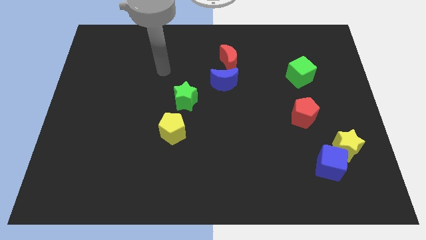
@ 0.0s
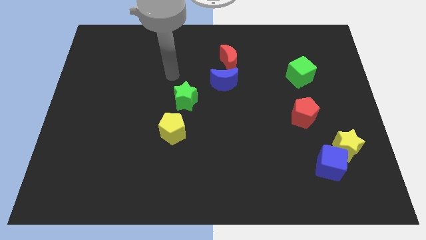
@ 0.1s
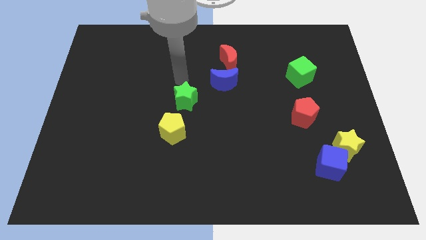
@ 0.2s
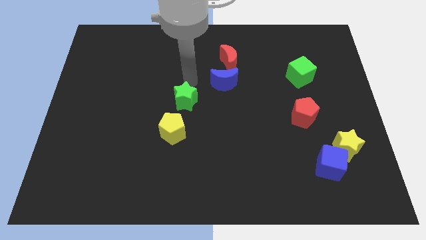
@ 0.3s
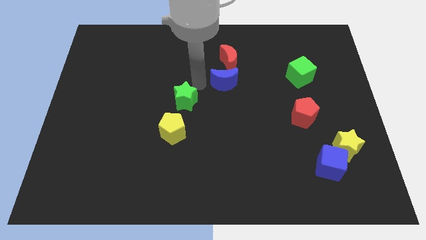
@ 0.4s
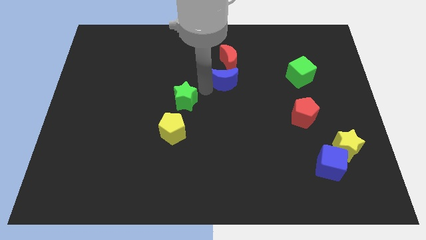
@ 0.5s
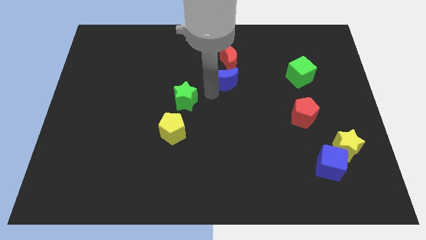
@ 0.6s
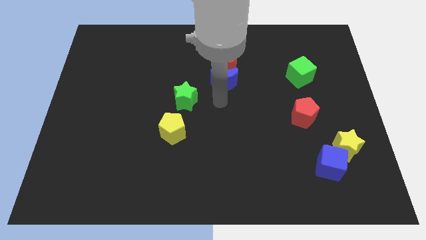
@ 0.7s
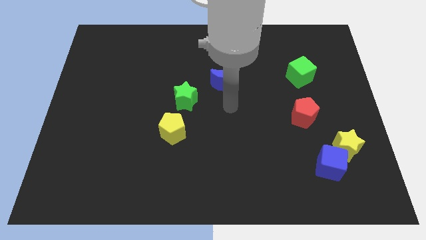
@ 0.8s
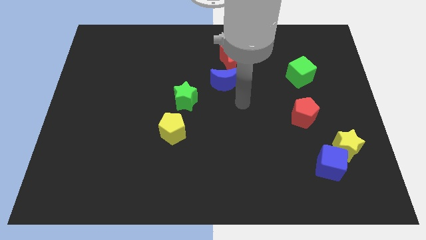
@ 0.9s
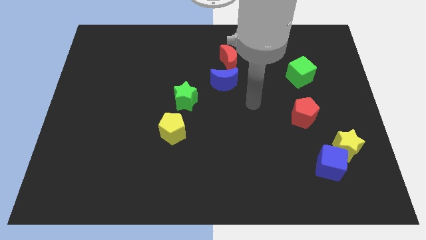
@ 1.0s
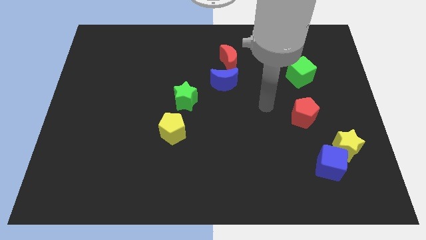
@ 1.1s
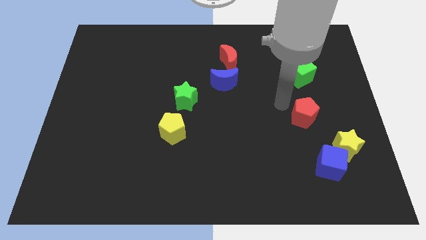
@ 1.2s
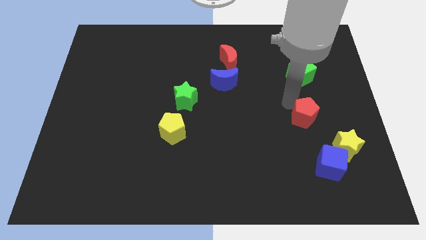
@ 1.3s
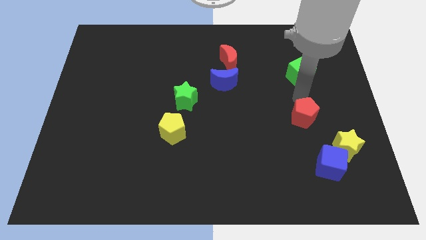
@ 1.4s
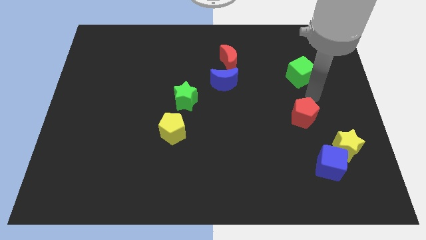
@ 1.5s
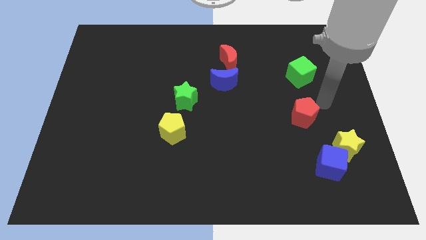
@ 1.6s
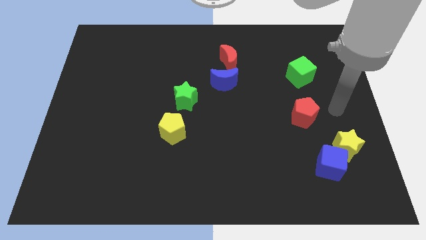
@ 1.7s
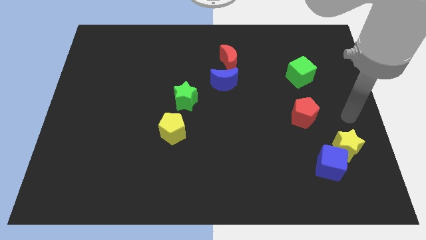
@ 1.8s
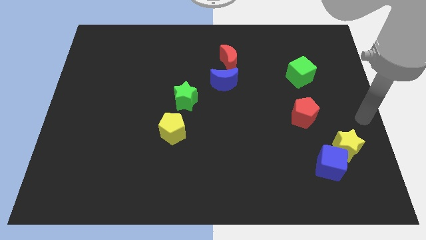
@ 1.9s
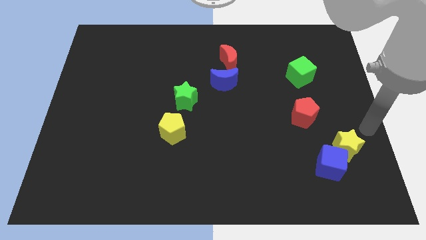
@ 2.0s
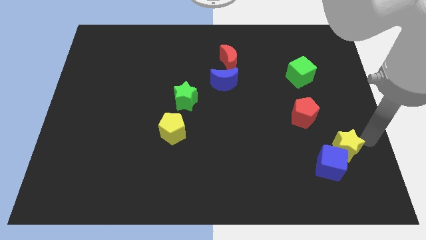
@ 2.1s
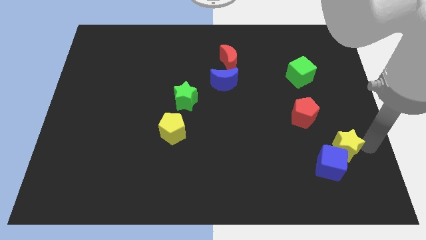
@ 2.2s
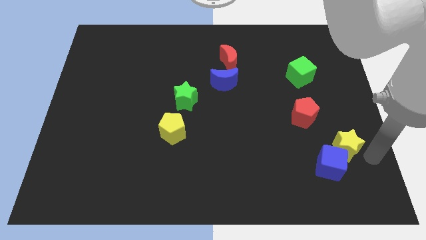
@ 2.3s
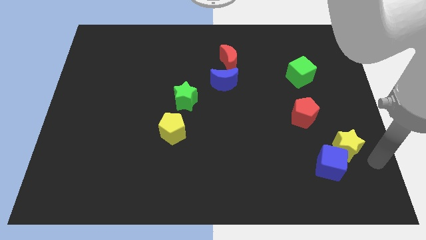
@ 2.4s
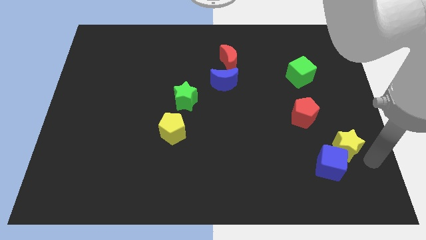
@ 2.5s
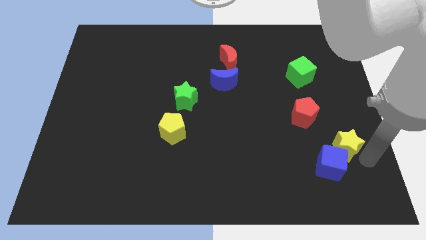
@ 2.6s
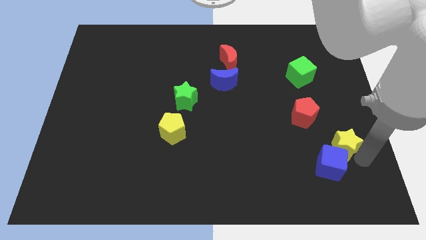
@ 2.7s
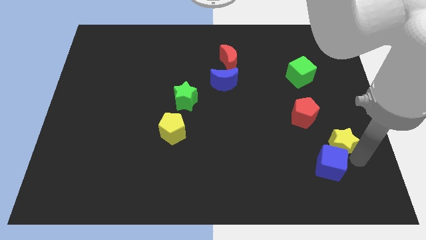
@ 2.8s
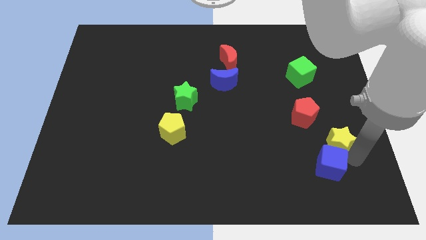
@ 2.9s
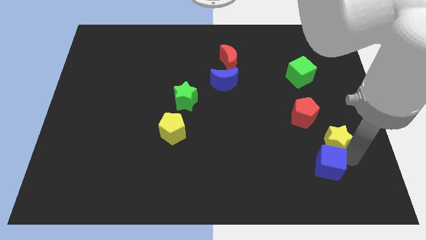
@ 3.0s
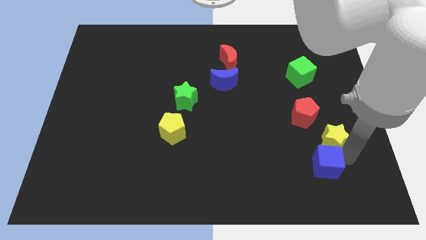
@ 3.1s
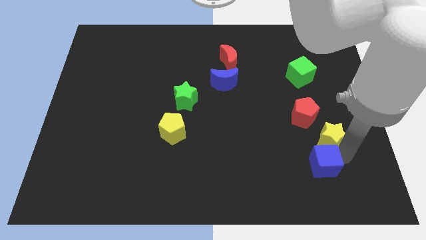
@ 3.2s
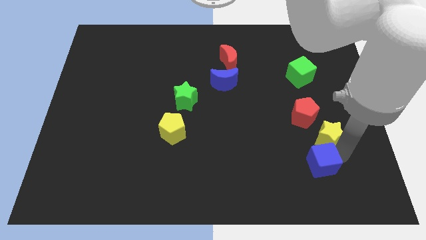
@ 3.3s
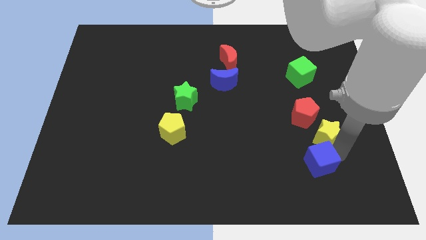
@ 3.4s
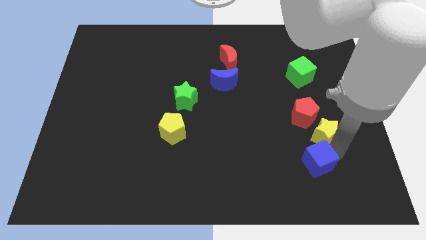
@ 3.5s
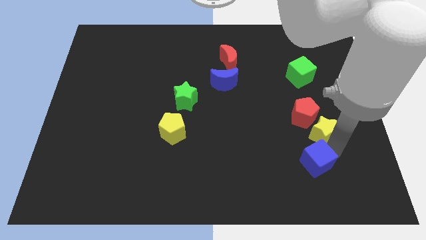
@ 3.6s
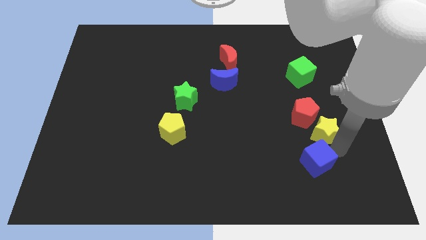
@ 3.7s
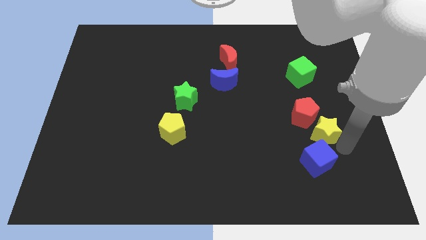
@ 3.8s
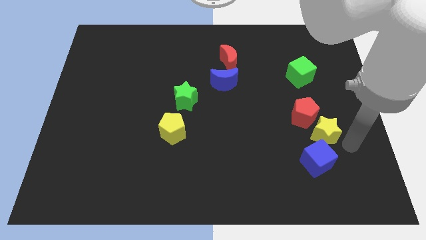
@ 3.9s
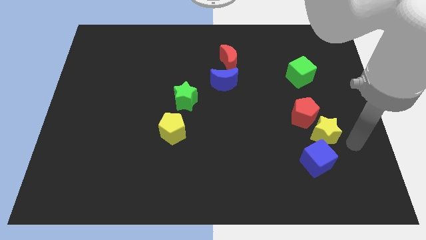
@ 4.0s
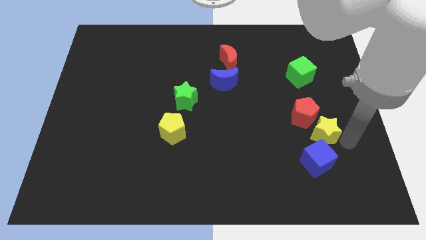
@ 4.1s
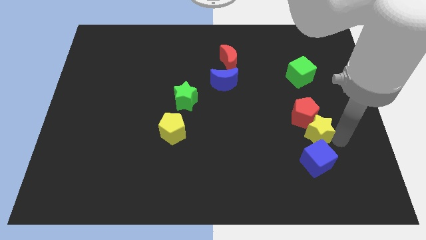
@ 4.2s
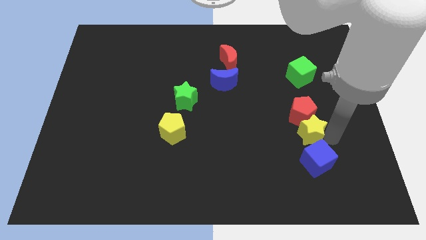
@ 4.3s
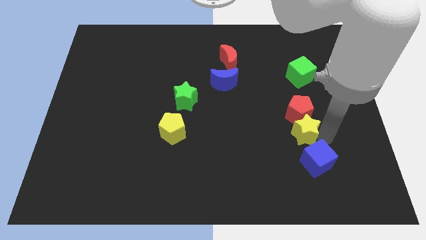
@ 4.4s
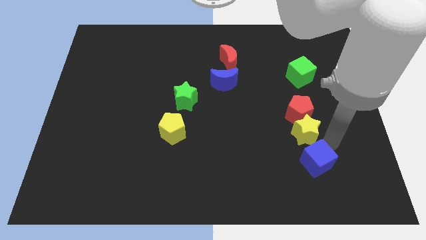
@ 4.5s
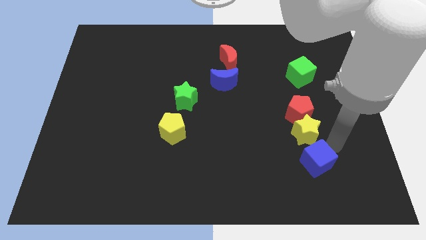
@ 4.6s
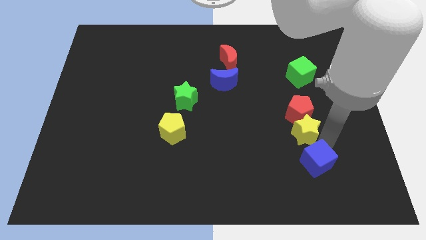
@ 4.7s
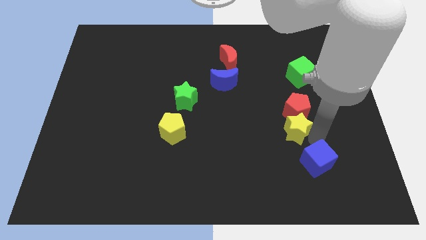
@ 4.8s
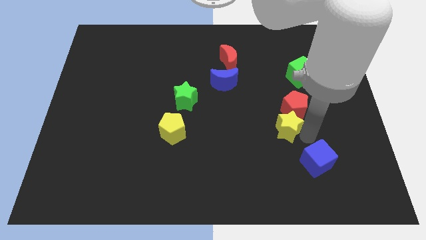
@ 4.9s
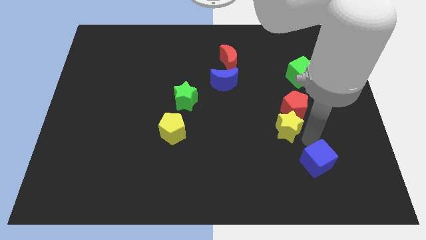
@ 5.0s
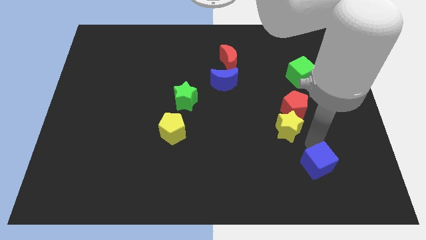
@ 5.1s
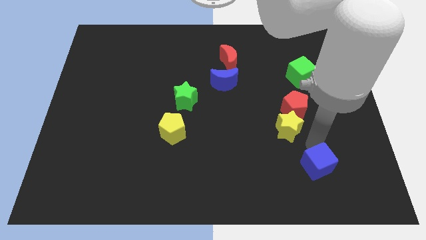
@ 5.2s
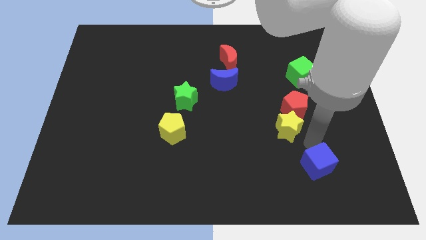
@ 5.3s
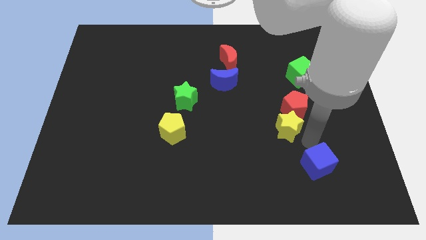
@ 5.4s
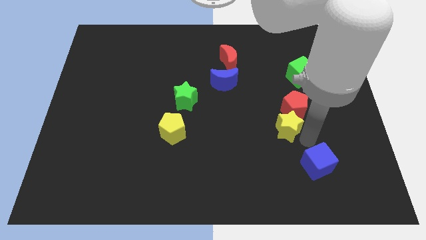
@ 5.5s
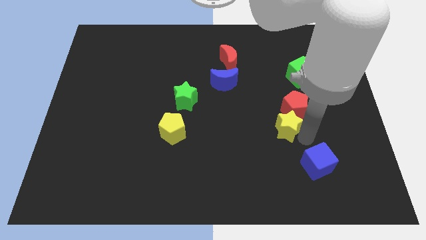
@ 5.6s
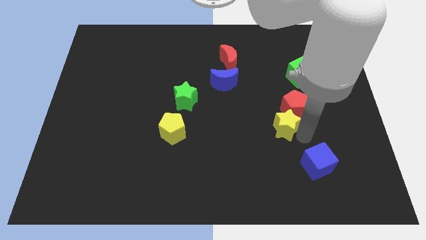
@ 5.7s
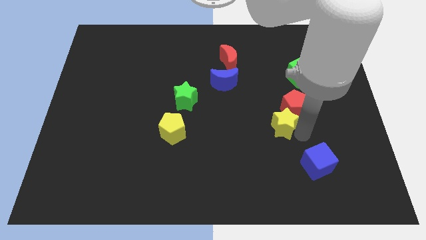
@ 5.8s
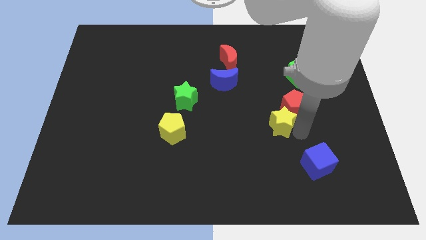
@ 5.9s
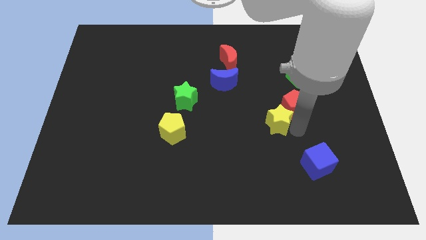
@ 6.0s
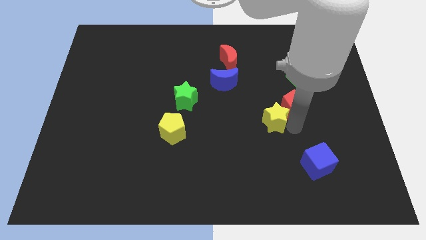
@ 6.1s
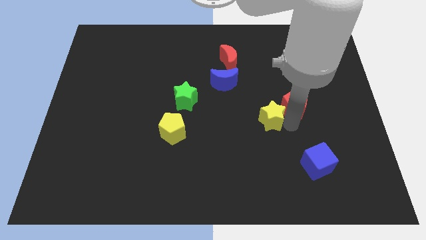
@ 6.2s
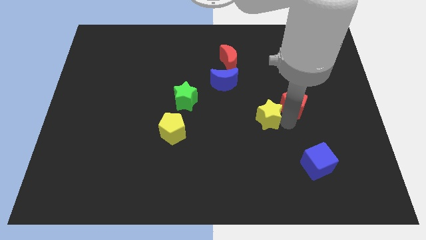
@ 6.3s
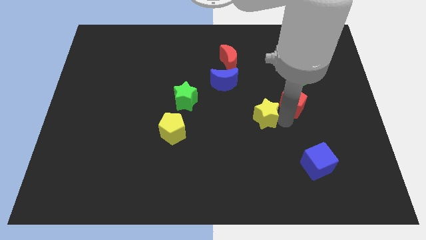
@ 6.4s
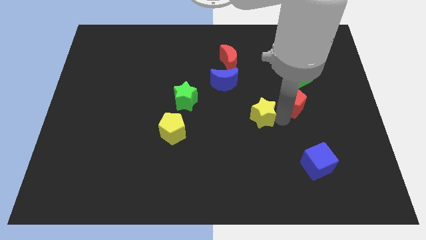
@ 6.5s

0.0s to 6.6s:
put the yellow star to the middle
